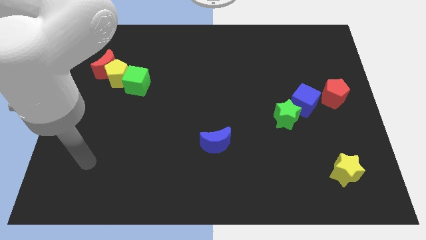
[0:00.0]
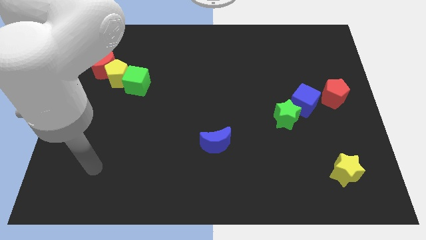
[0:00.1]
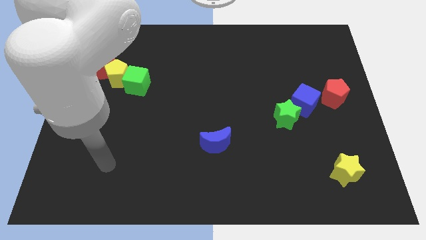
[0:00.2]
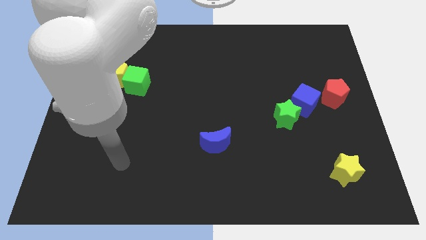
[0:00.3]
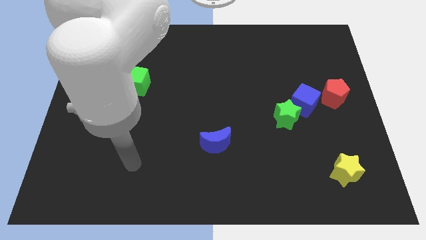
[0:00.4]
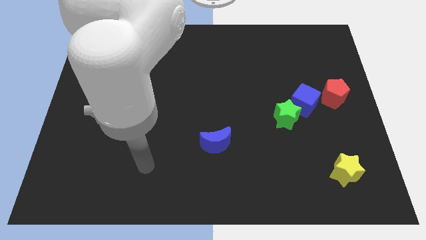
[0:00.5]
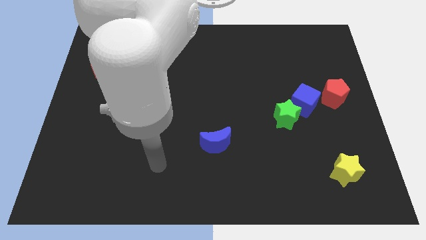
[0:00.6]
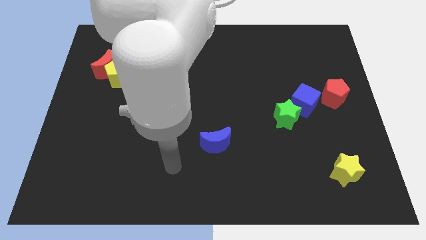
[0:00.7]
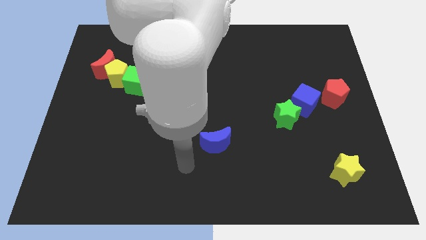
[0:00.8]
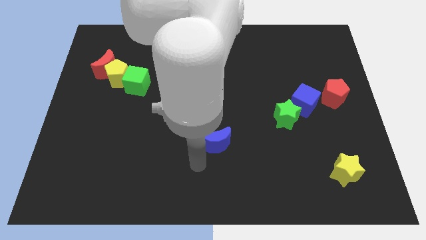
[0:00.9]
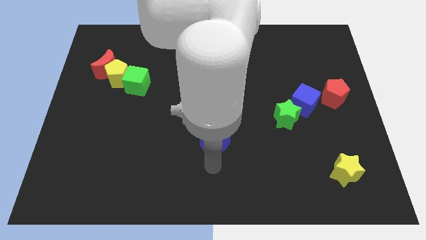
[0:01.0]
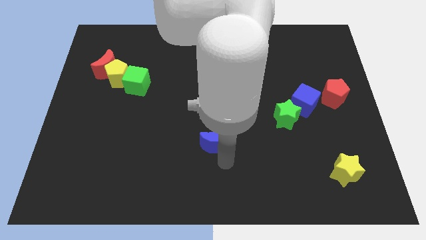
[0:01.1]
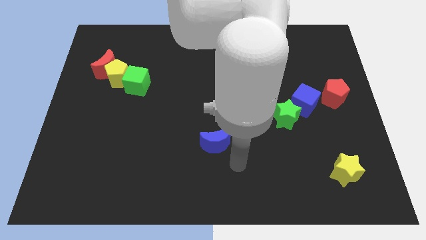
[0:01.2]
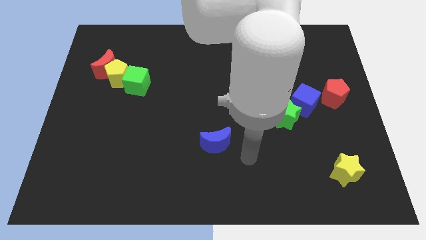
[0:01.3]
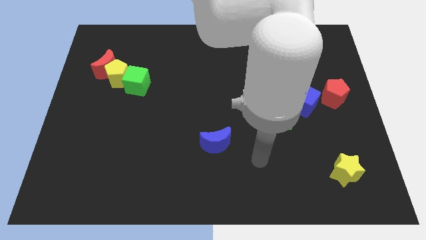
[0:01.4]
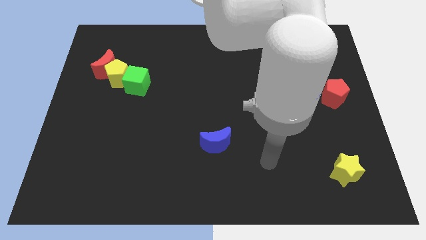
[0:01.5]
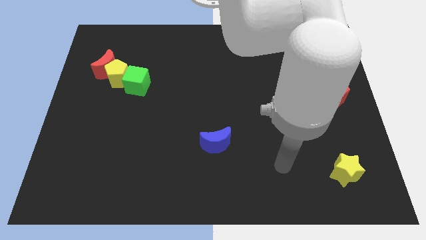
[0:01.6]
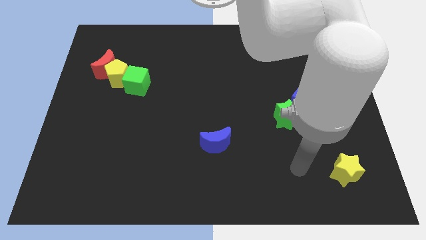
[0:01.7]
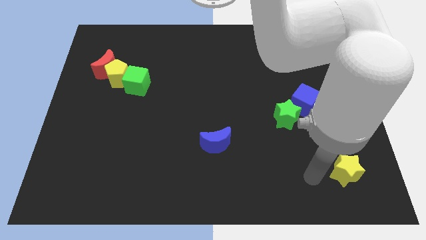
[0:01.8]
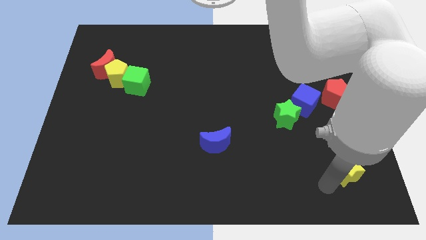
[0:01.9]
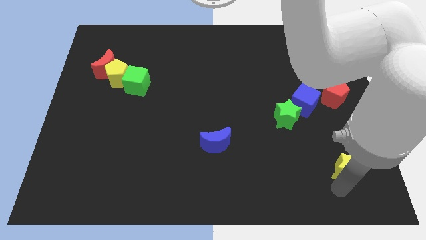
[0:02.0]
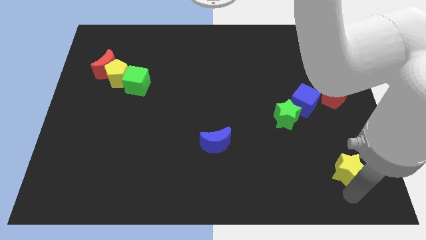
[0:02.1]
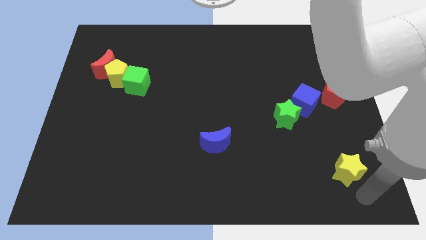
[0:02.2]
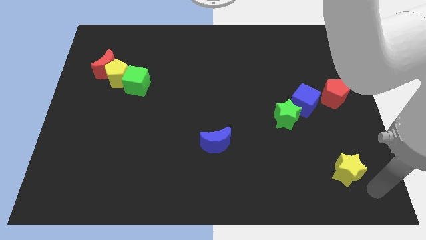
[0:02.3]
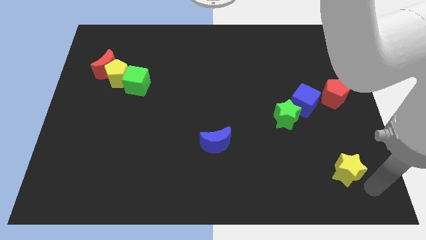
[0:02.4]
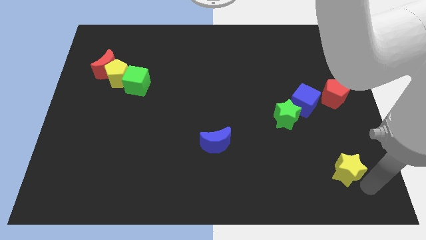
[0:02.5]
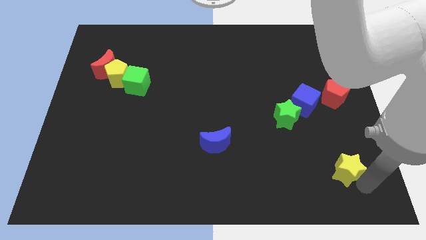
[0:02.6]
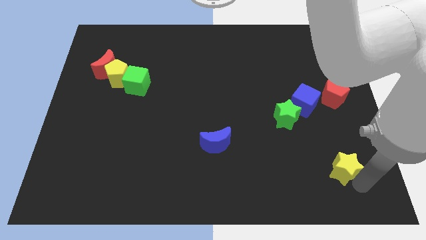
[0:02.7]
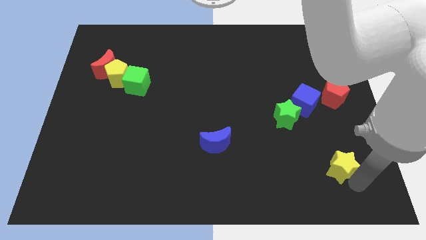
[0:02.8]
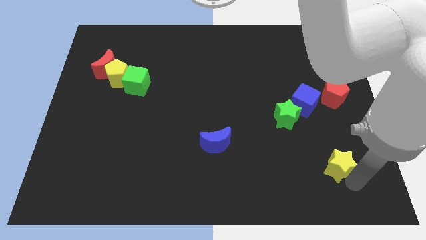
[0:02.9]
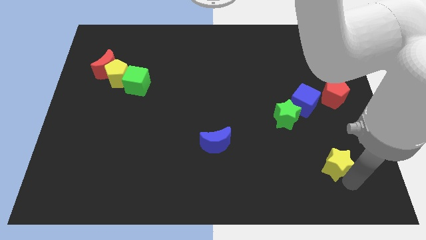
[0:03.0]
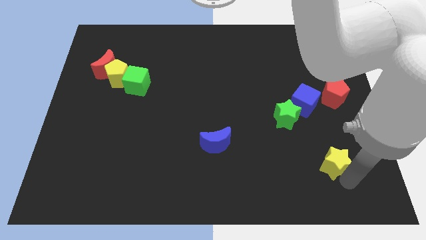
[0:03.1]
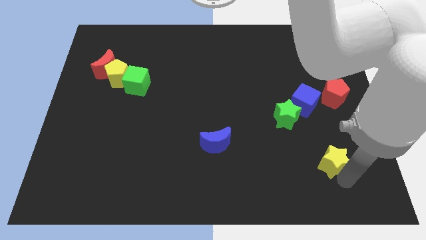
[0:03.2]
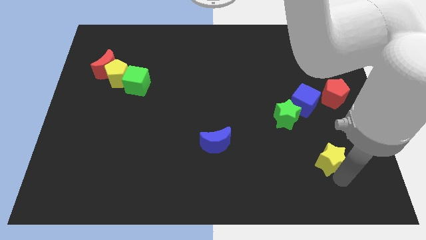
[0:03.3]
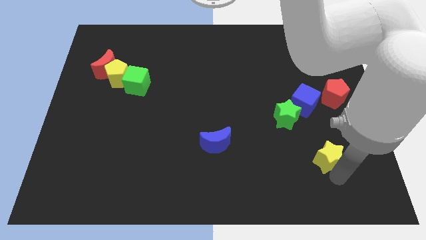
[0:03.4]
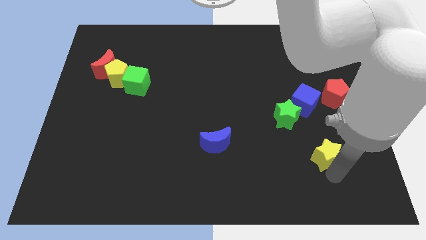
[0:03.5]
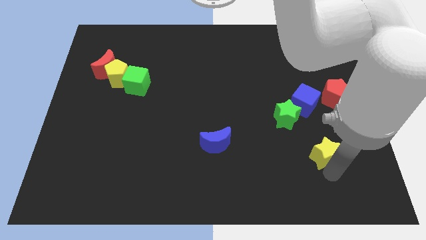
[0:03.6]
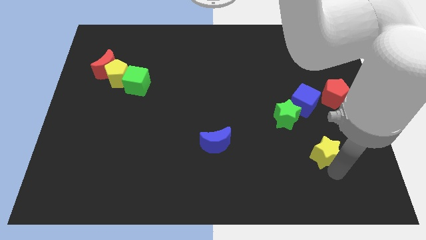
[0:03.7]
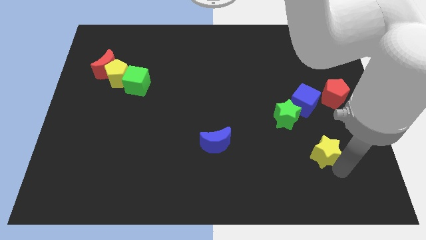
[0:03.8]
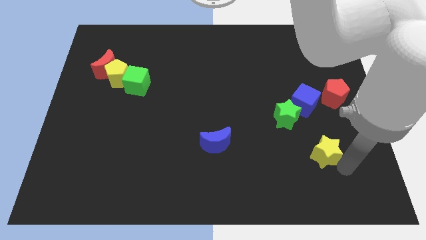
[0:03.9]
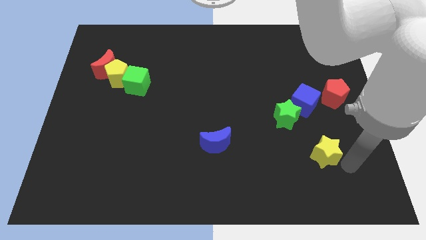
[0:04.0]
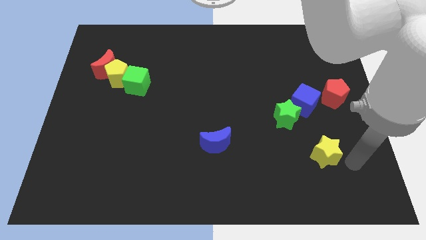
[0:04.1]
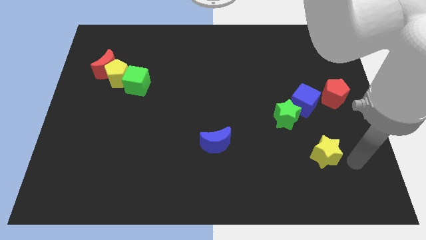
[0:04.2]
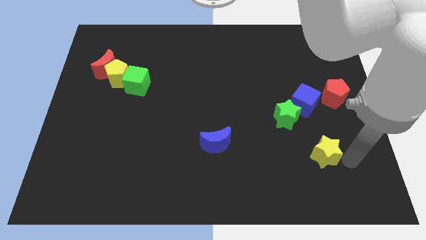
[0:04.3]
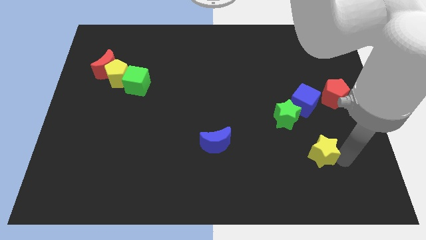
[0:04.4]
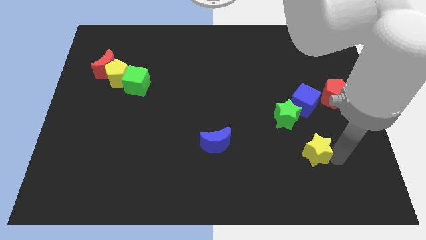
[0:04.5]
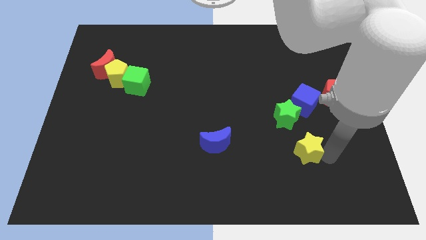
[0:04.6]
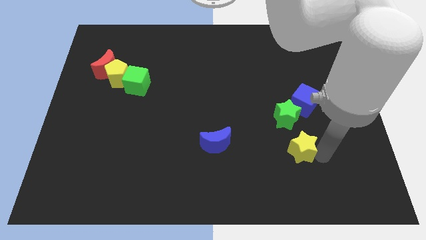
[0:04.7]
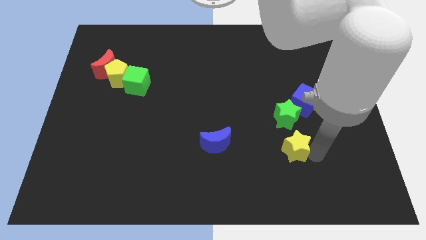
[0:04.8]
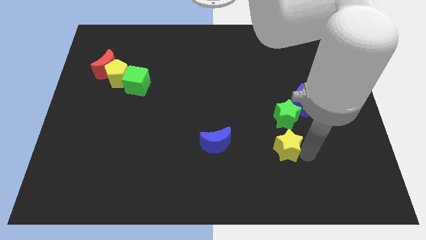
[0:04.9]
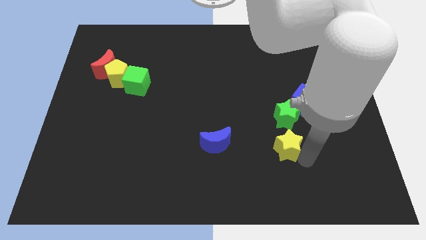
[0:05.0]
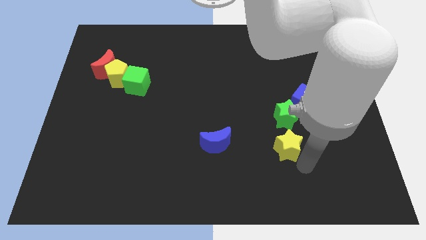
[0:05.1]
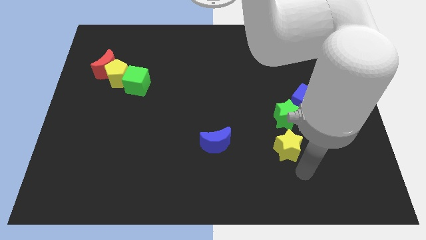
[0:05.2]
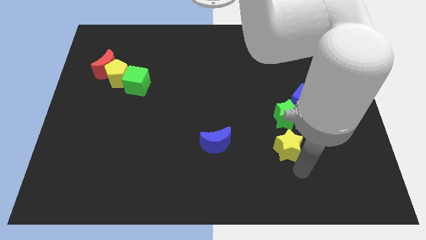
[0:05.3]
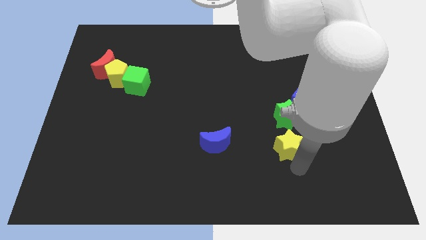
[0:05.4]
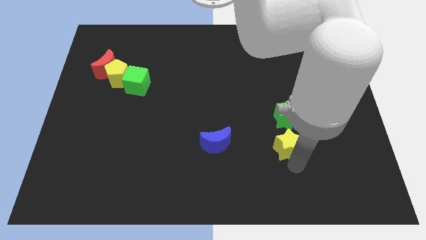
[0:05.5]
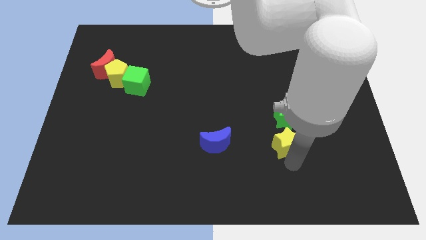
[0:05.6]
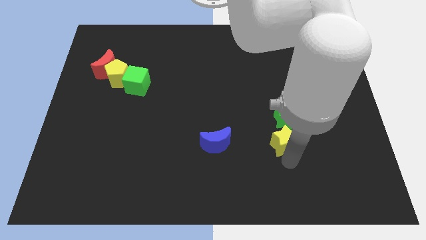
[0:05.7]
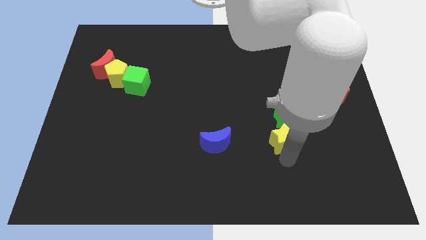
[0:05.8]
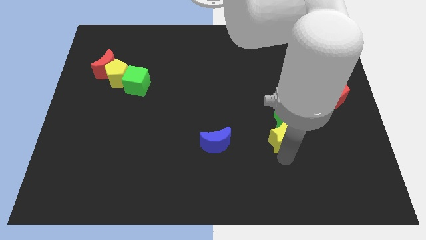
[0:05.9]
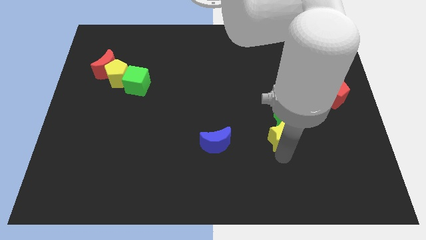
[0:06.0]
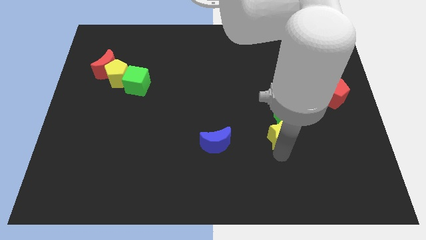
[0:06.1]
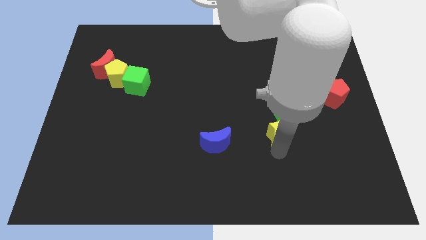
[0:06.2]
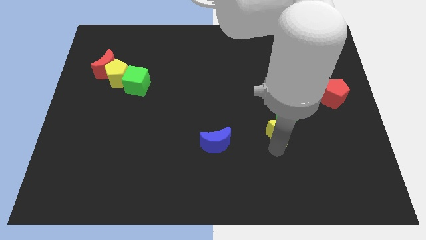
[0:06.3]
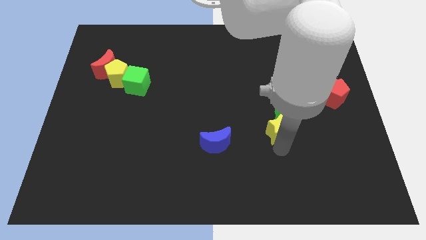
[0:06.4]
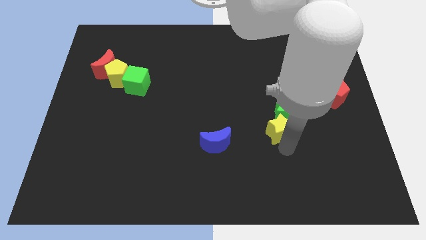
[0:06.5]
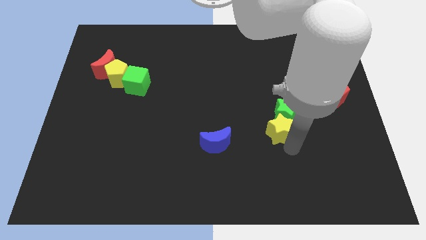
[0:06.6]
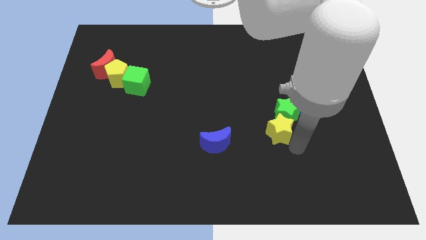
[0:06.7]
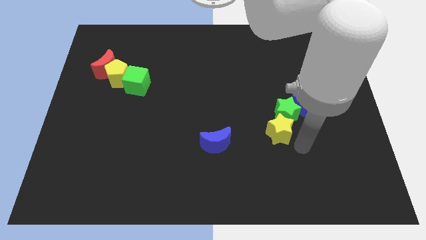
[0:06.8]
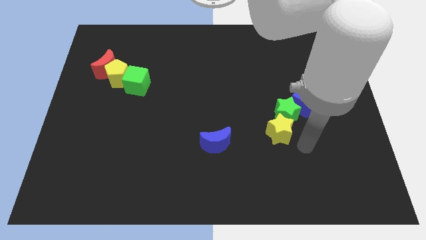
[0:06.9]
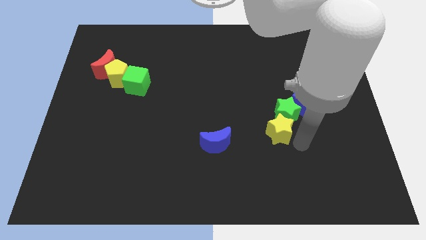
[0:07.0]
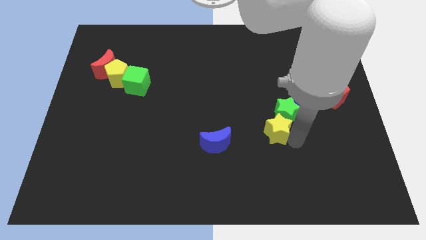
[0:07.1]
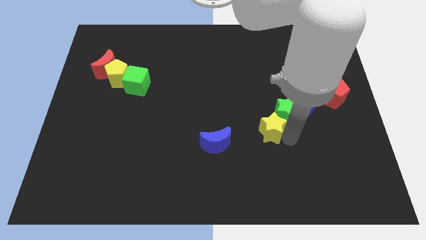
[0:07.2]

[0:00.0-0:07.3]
push the yellow star to the left of the green star

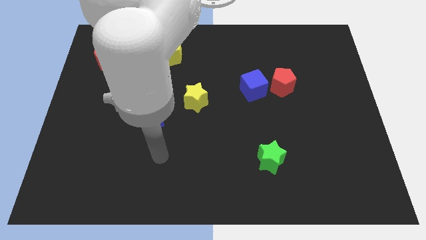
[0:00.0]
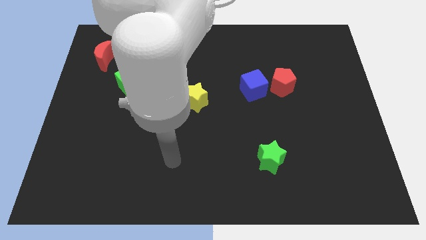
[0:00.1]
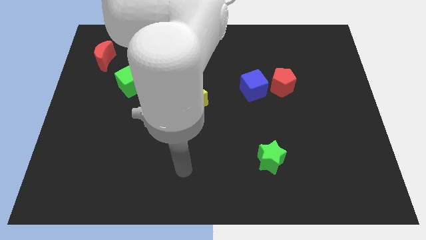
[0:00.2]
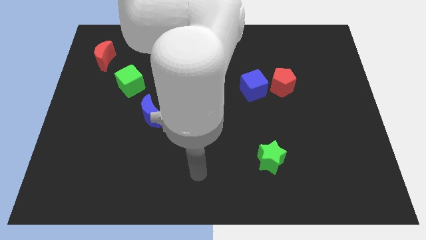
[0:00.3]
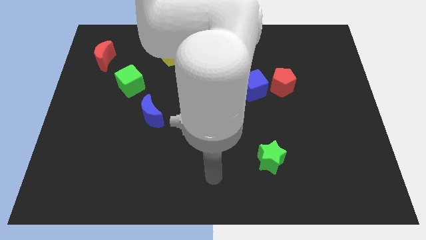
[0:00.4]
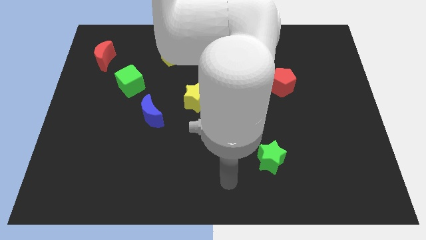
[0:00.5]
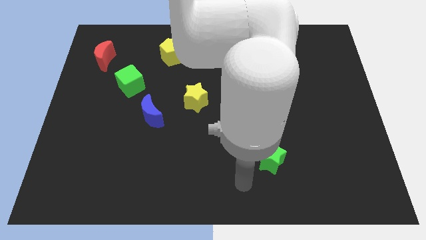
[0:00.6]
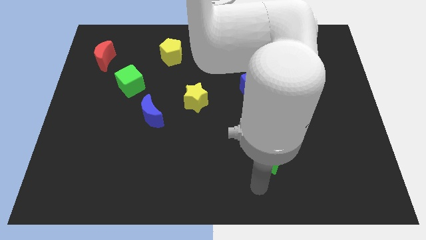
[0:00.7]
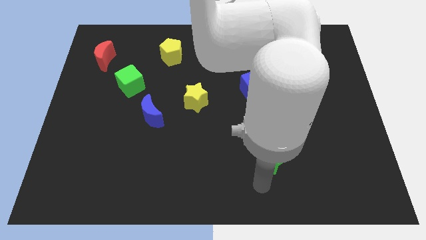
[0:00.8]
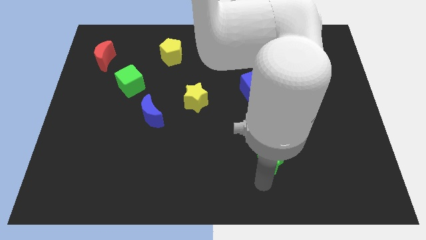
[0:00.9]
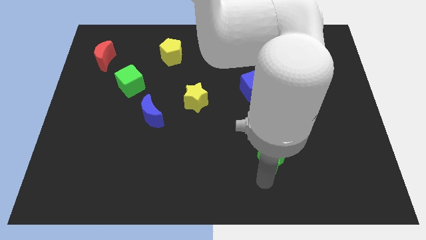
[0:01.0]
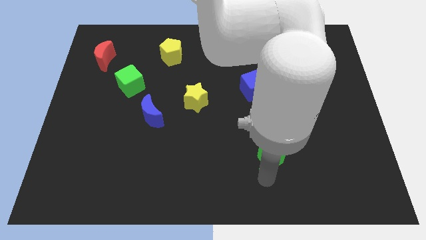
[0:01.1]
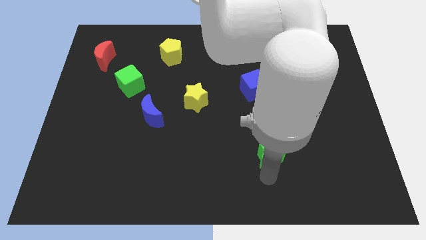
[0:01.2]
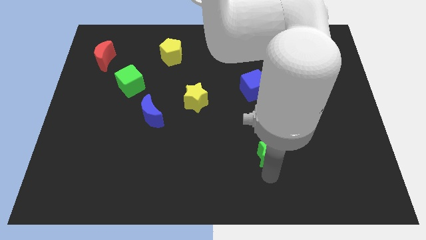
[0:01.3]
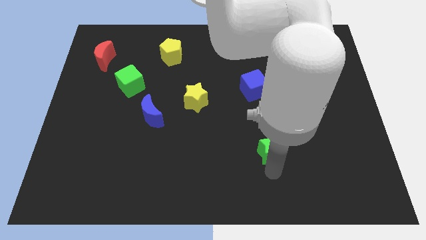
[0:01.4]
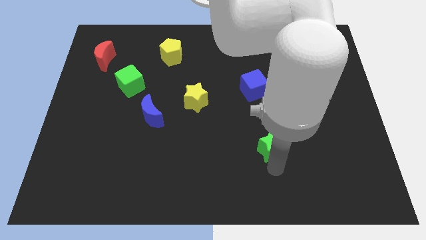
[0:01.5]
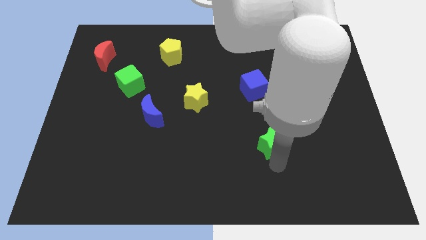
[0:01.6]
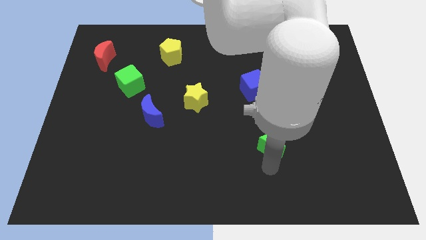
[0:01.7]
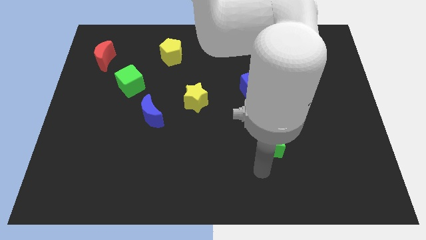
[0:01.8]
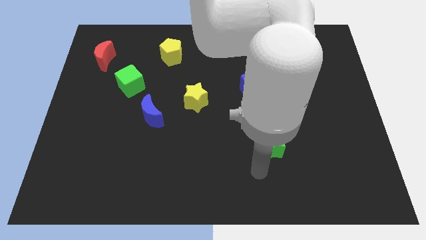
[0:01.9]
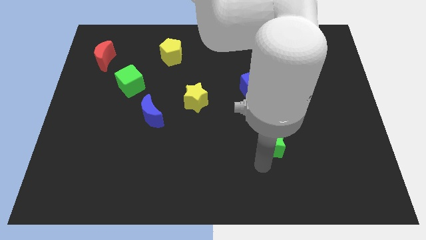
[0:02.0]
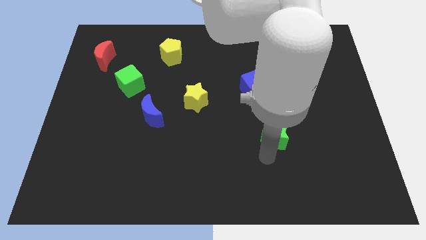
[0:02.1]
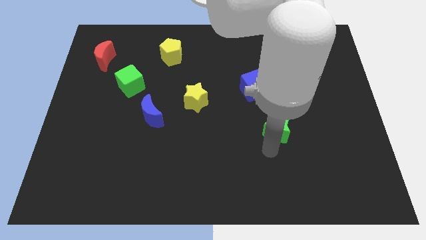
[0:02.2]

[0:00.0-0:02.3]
slide the green star below the red pentagon
